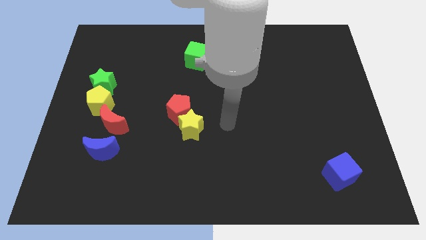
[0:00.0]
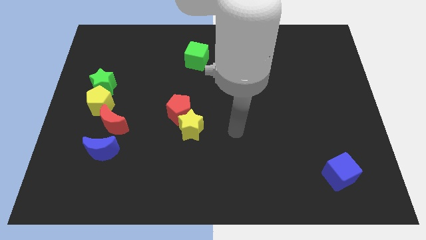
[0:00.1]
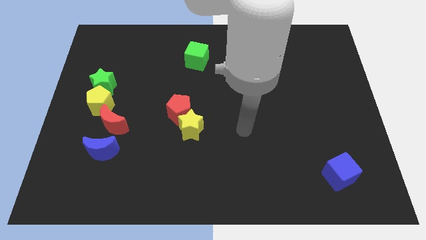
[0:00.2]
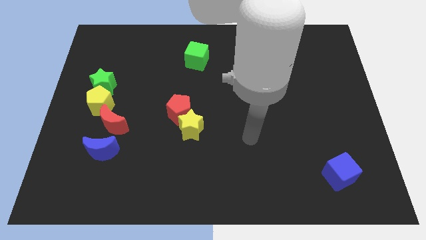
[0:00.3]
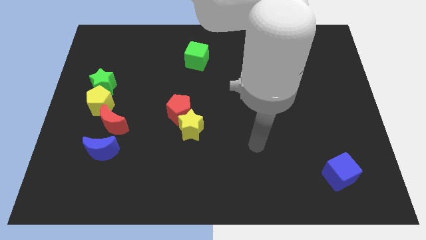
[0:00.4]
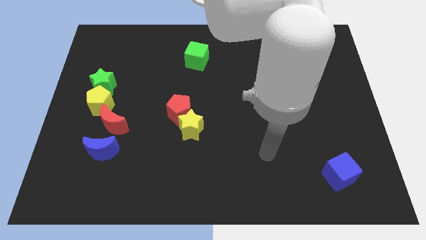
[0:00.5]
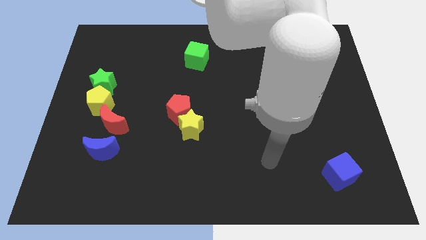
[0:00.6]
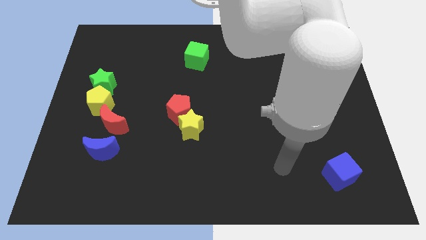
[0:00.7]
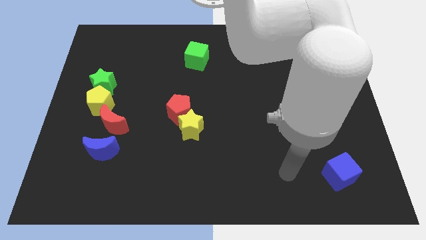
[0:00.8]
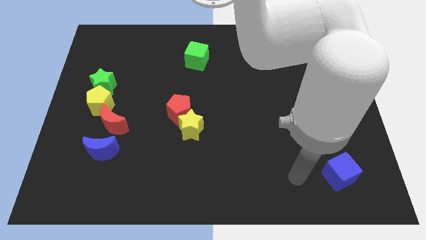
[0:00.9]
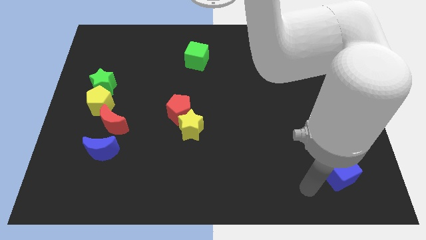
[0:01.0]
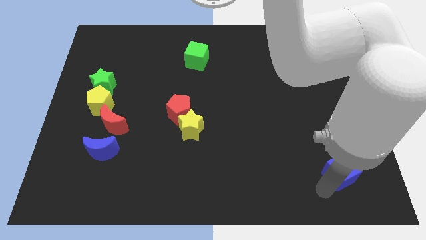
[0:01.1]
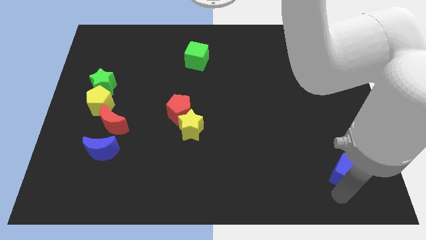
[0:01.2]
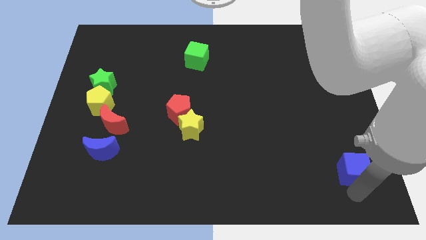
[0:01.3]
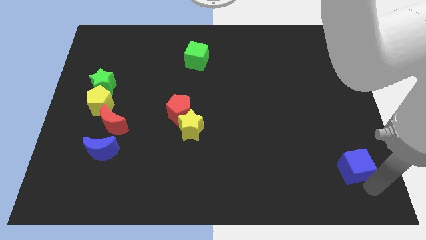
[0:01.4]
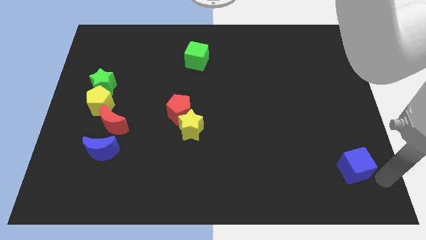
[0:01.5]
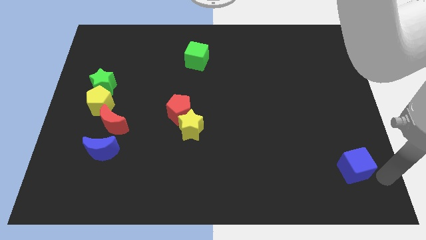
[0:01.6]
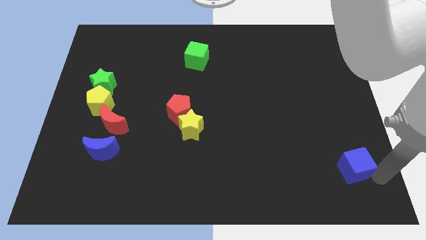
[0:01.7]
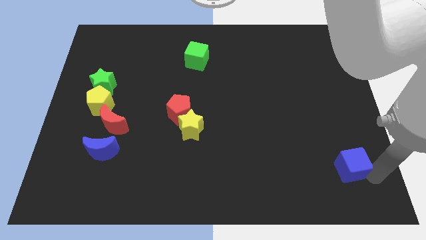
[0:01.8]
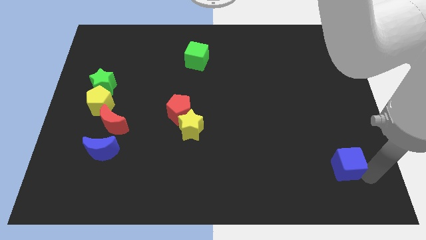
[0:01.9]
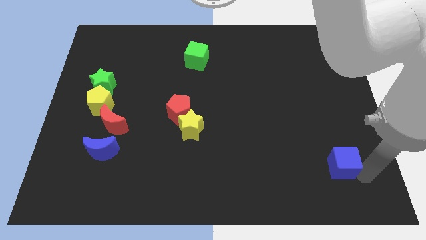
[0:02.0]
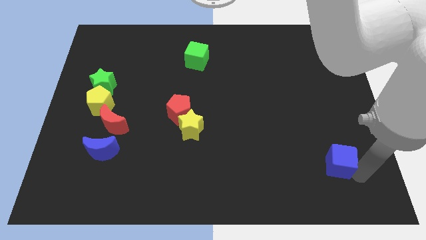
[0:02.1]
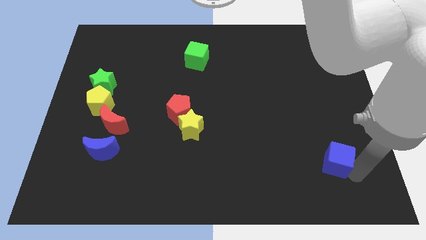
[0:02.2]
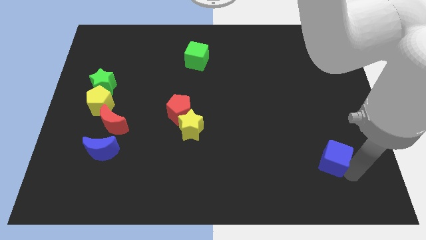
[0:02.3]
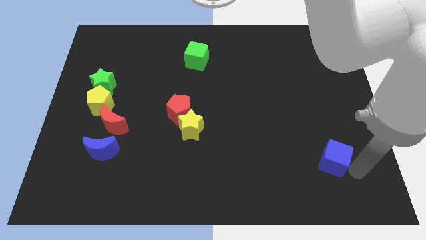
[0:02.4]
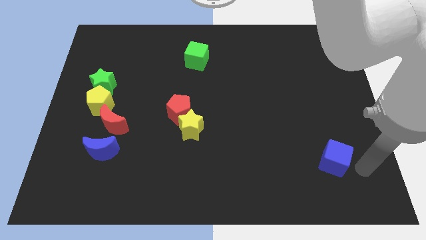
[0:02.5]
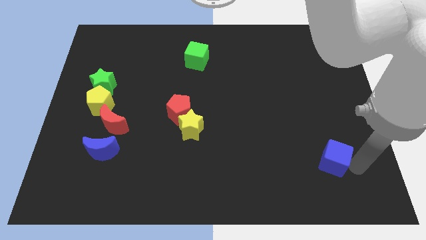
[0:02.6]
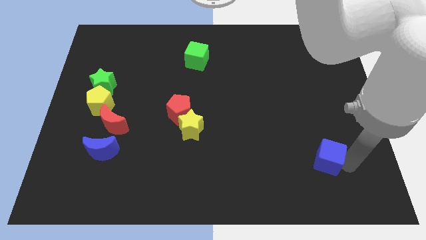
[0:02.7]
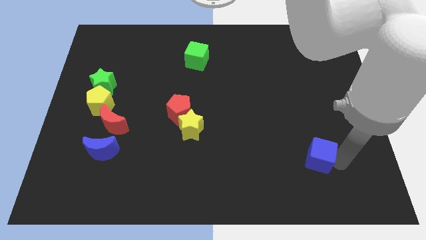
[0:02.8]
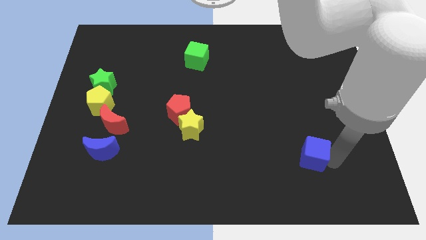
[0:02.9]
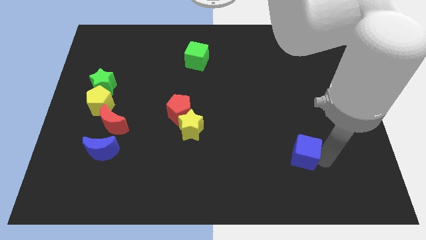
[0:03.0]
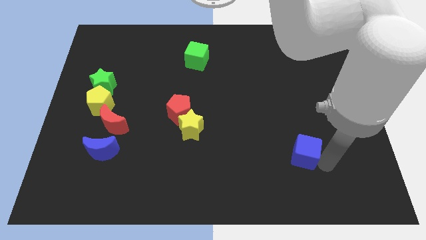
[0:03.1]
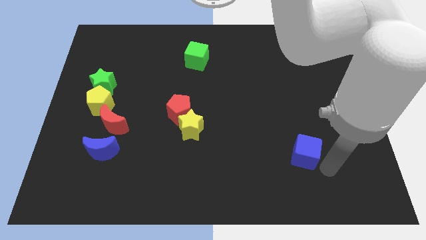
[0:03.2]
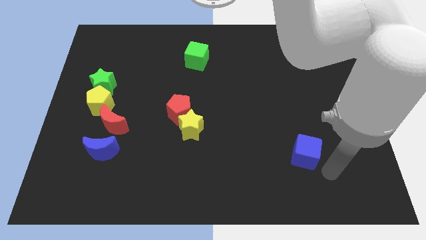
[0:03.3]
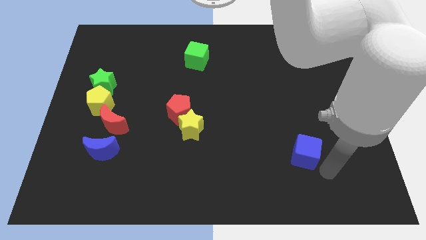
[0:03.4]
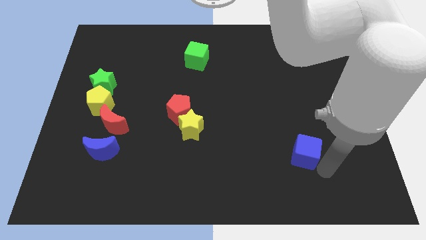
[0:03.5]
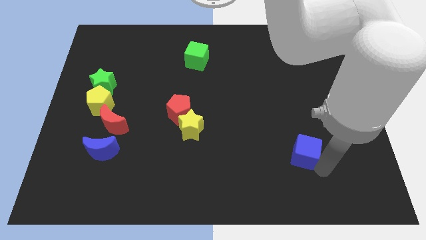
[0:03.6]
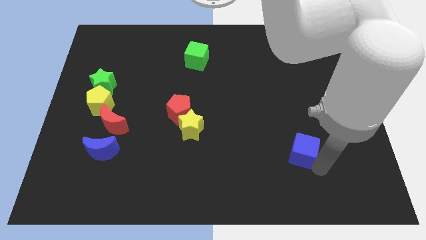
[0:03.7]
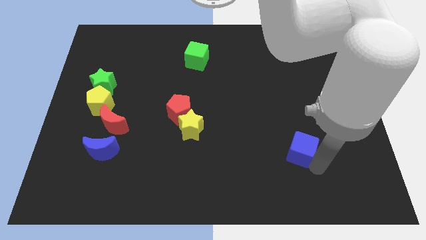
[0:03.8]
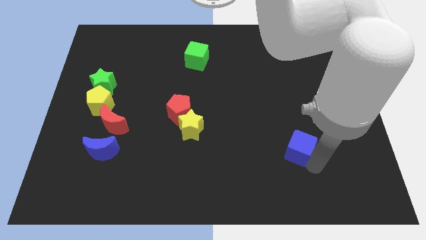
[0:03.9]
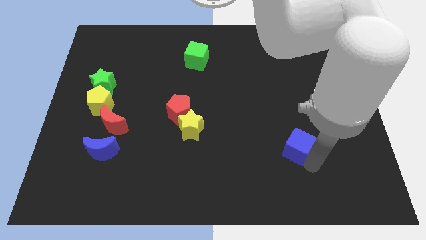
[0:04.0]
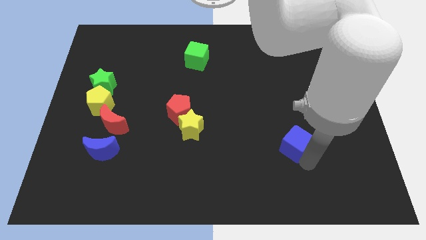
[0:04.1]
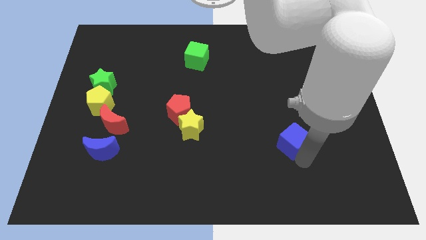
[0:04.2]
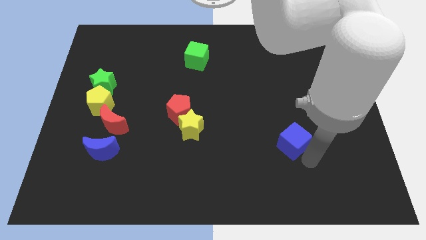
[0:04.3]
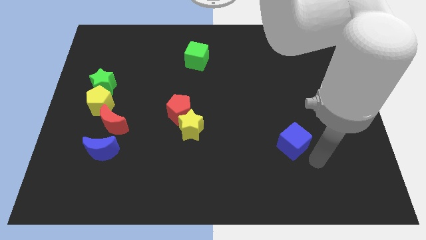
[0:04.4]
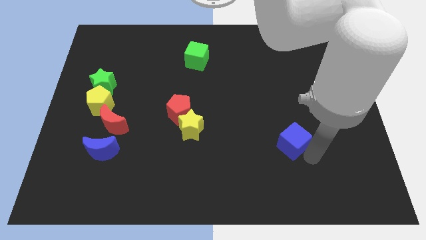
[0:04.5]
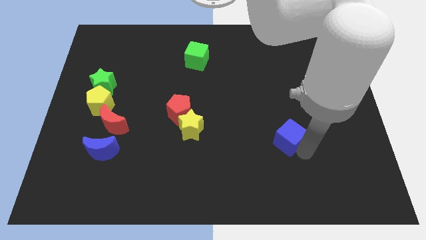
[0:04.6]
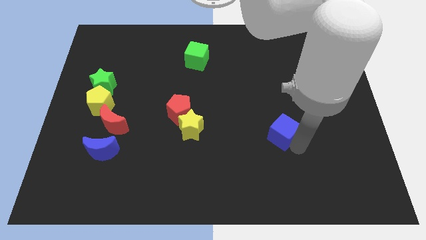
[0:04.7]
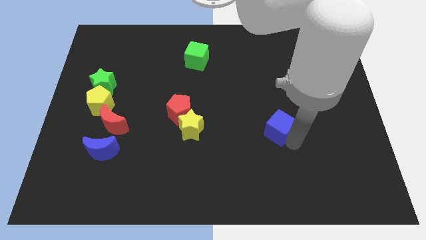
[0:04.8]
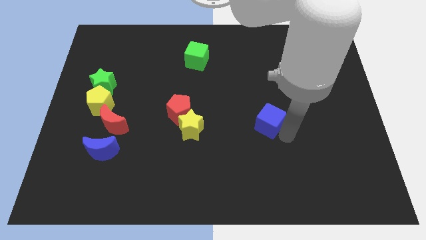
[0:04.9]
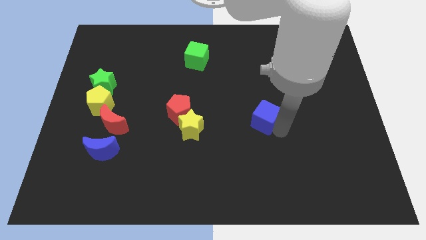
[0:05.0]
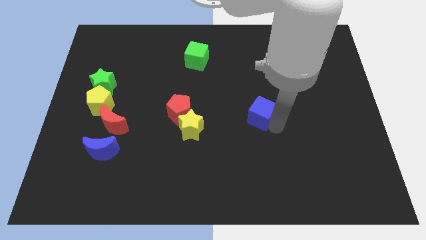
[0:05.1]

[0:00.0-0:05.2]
move the blue cube to the middle of the board

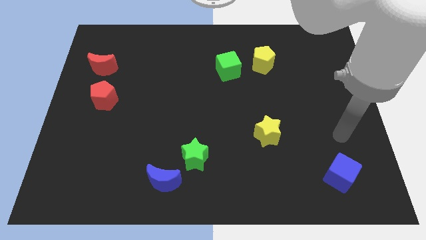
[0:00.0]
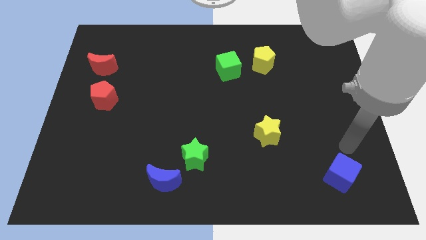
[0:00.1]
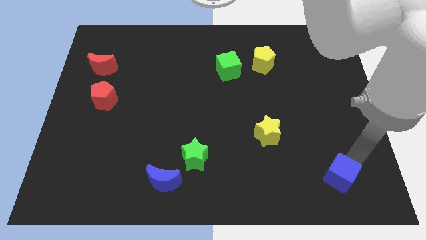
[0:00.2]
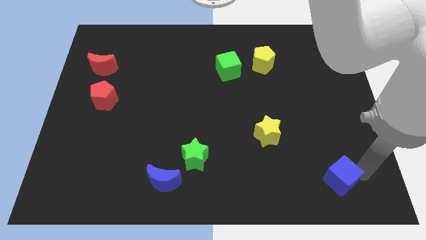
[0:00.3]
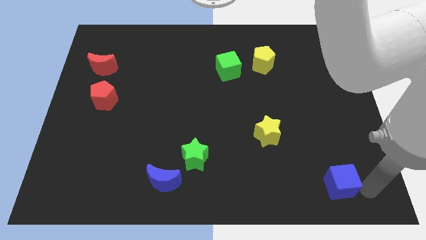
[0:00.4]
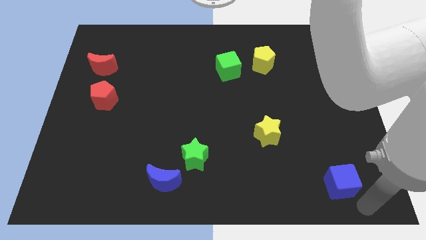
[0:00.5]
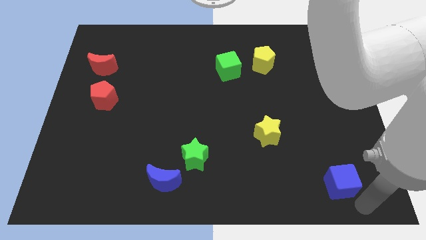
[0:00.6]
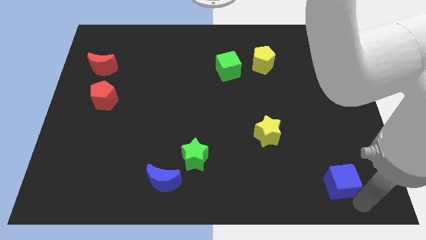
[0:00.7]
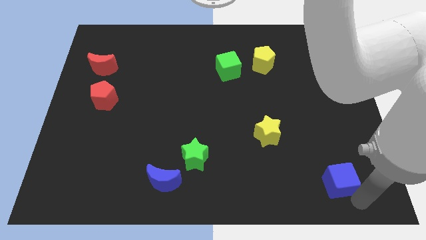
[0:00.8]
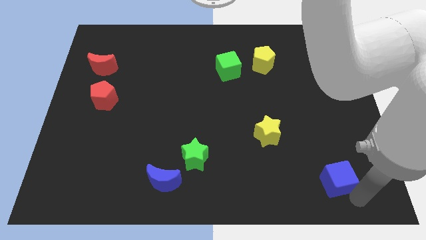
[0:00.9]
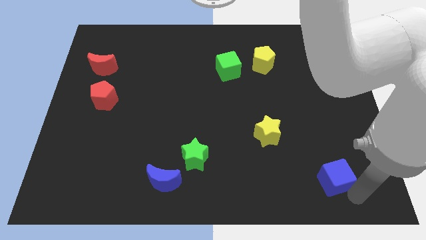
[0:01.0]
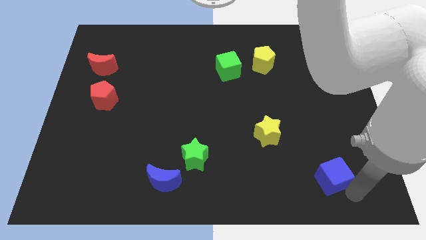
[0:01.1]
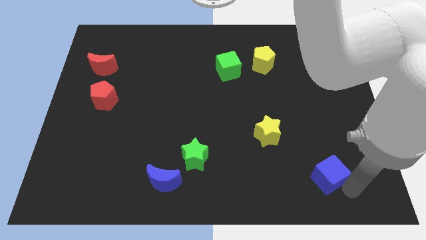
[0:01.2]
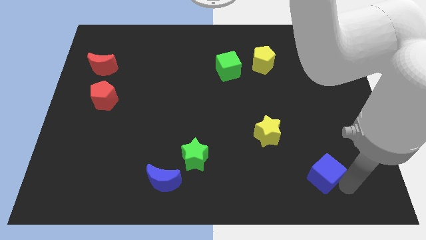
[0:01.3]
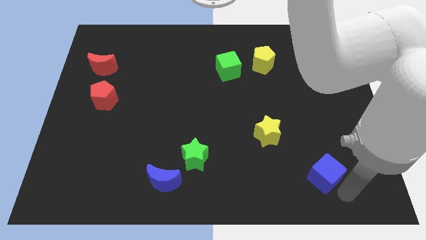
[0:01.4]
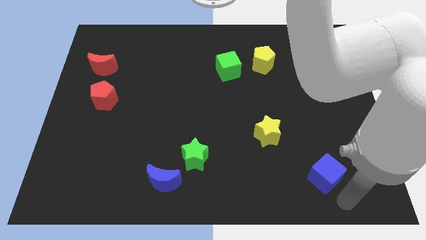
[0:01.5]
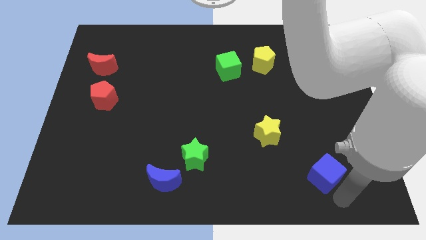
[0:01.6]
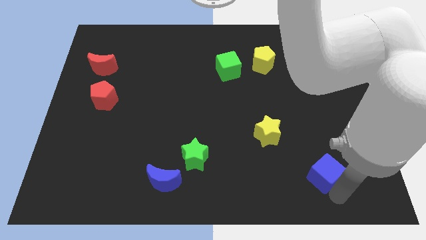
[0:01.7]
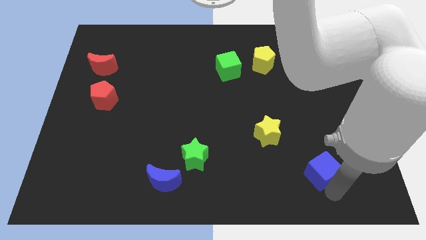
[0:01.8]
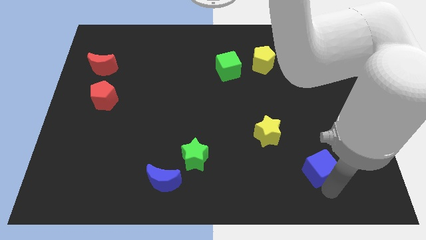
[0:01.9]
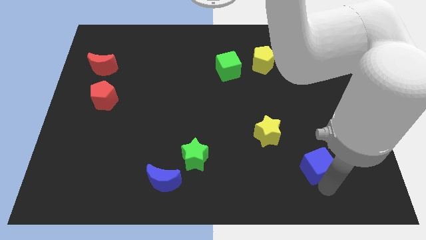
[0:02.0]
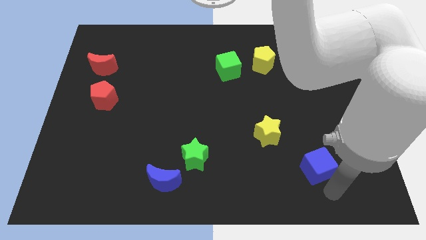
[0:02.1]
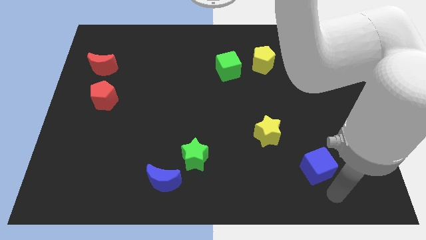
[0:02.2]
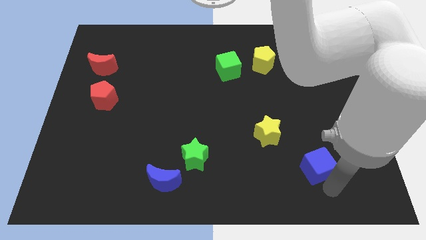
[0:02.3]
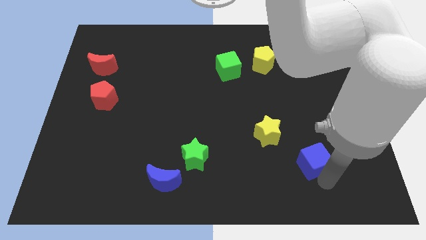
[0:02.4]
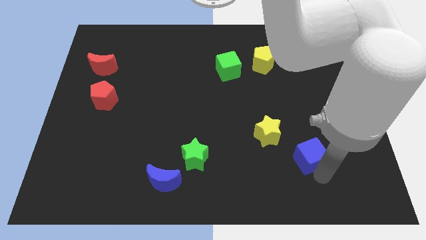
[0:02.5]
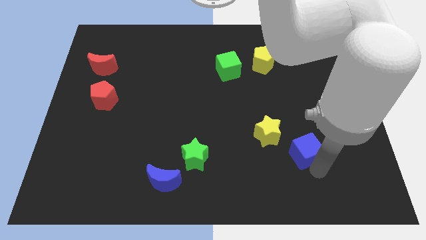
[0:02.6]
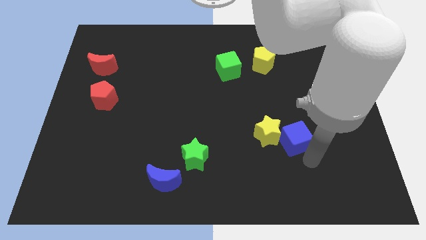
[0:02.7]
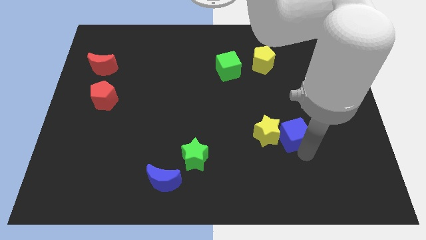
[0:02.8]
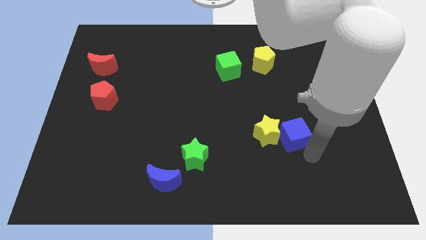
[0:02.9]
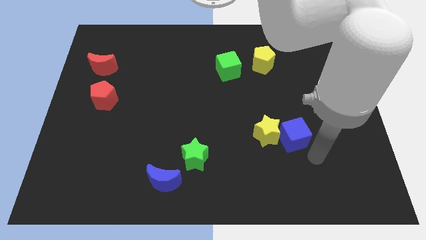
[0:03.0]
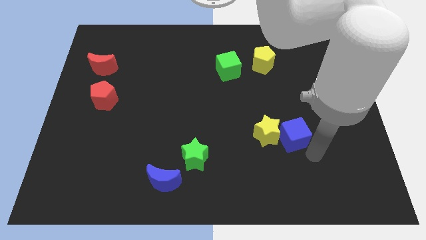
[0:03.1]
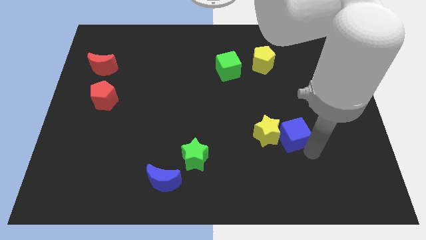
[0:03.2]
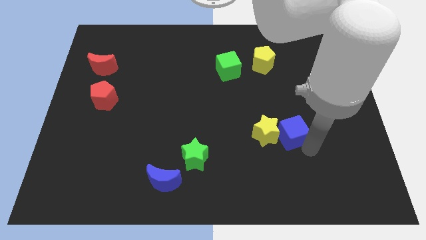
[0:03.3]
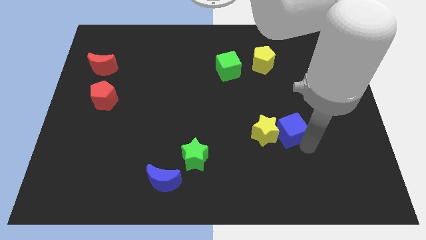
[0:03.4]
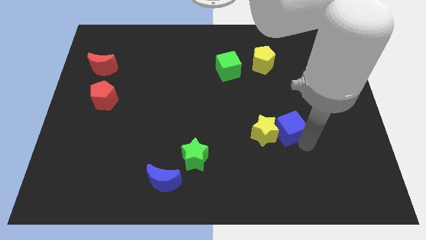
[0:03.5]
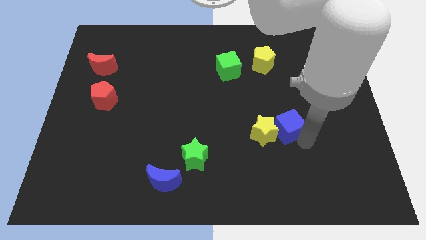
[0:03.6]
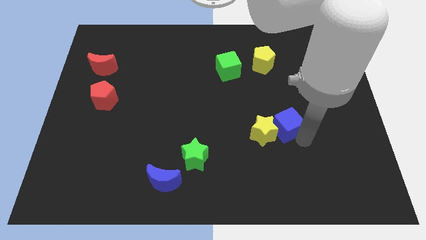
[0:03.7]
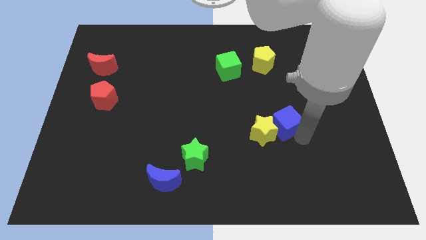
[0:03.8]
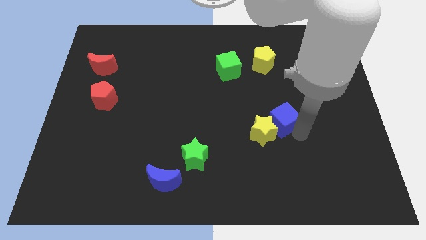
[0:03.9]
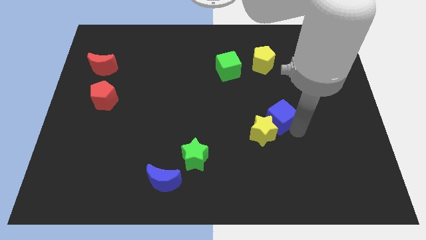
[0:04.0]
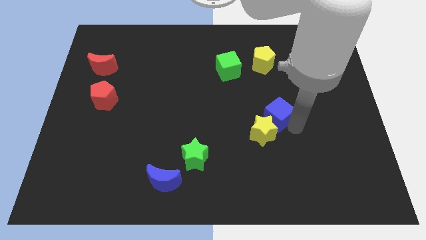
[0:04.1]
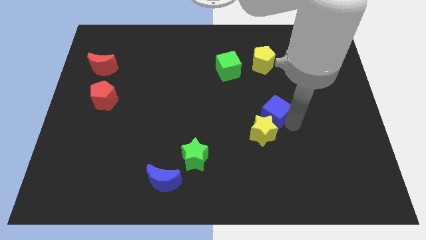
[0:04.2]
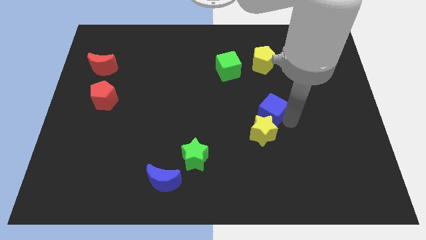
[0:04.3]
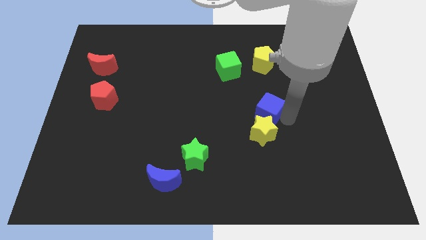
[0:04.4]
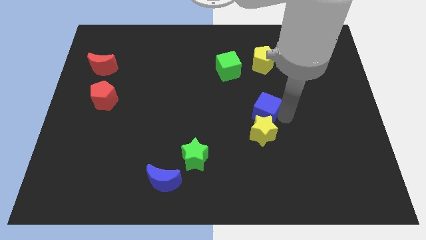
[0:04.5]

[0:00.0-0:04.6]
move the blue cube to the center
